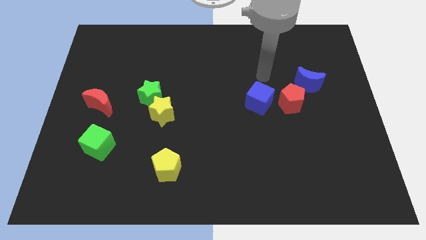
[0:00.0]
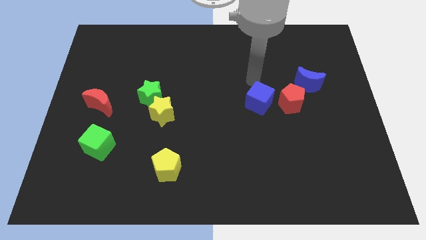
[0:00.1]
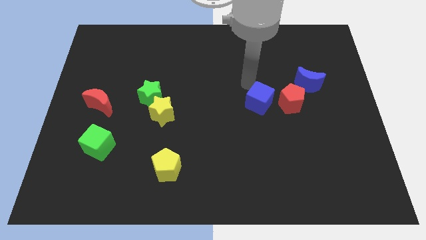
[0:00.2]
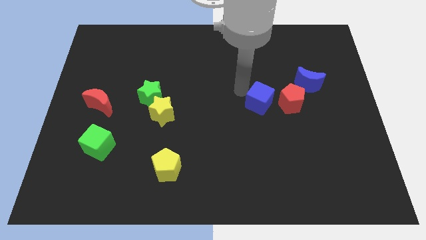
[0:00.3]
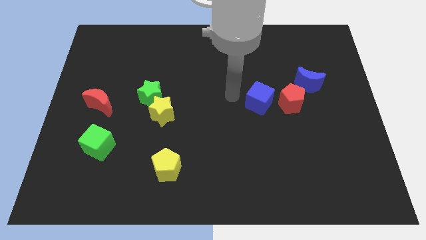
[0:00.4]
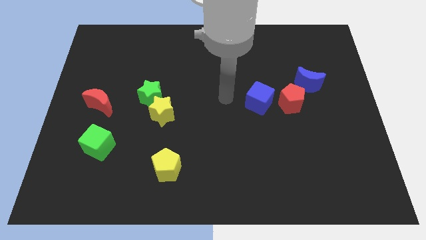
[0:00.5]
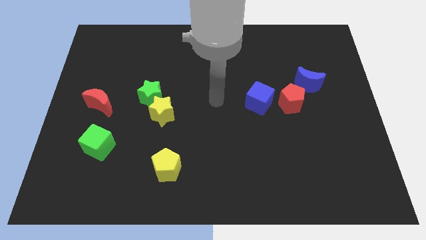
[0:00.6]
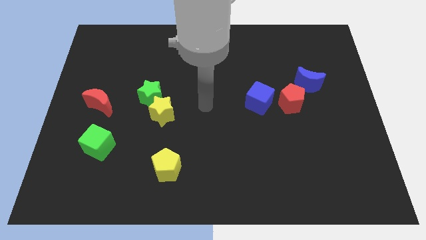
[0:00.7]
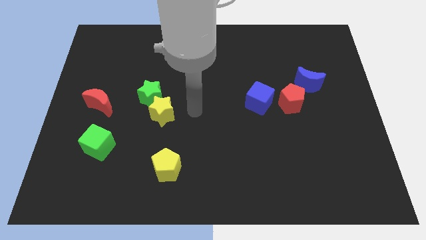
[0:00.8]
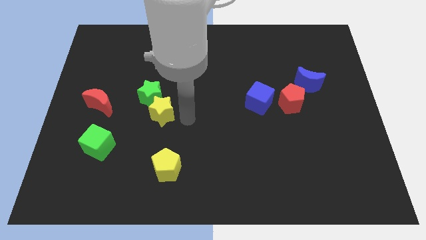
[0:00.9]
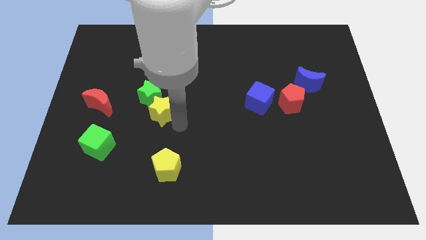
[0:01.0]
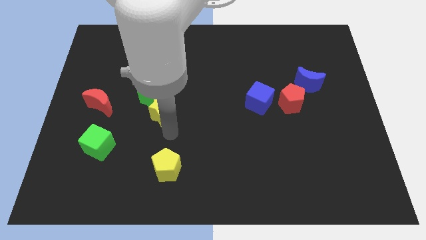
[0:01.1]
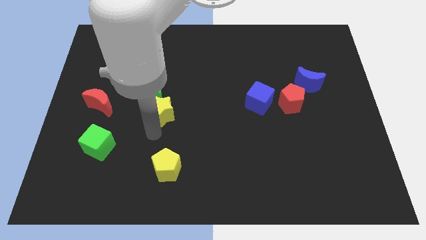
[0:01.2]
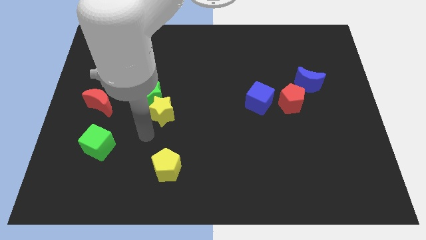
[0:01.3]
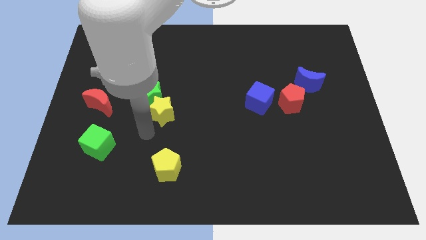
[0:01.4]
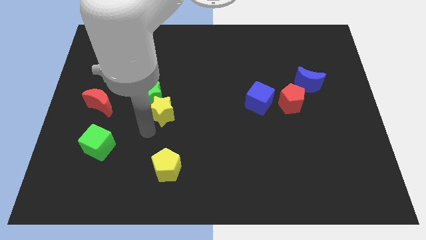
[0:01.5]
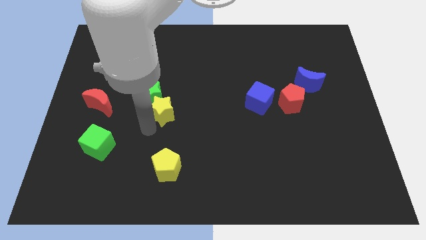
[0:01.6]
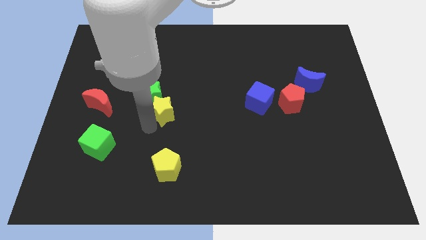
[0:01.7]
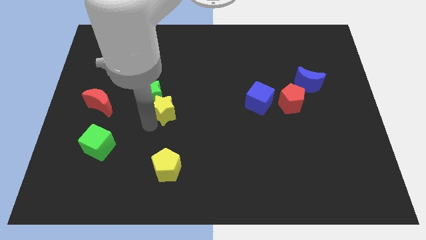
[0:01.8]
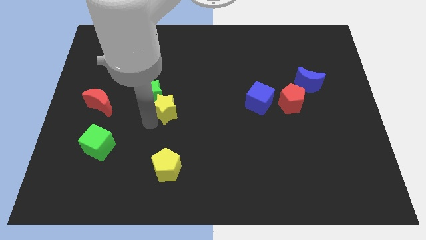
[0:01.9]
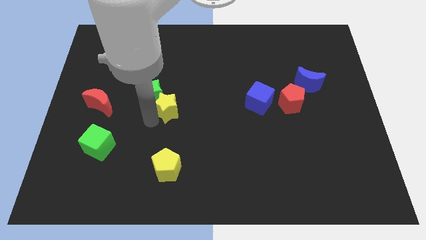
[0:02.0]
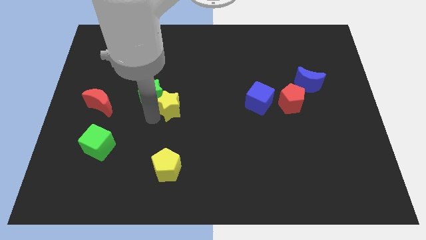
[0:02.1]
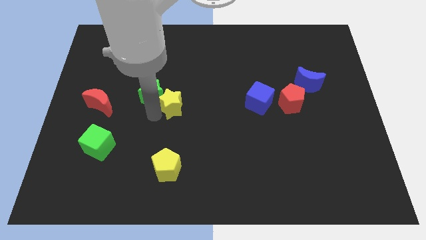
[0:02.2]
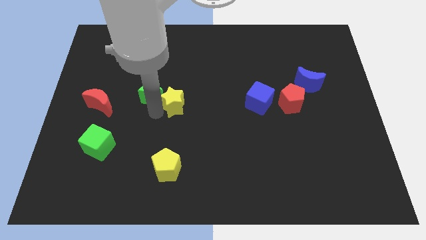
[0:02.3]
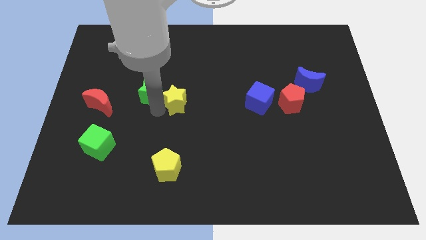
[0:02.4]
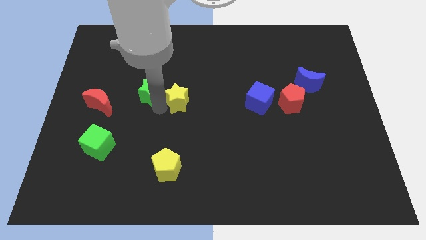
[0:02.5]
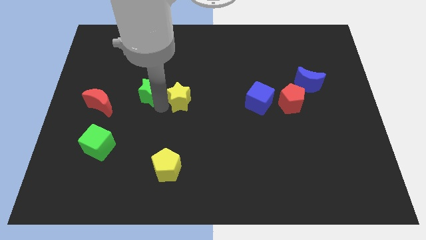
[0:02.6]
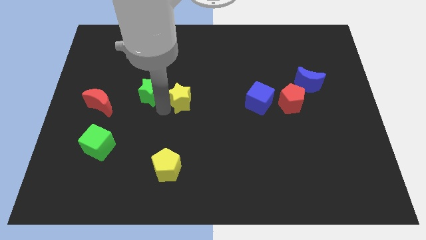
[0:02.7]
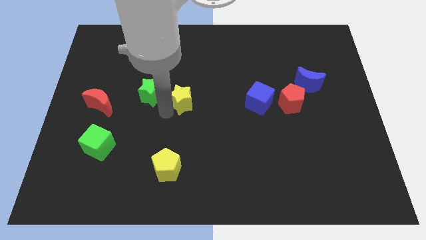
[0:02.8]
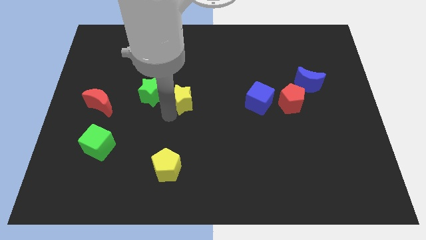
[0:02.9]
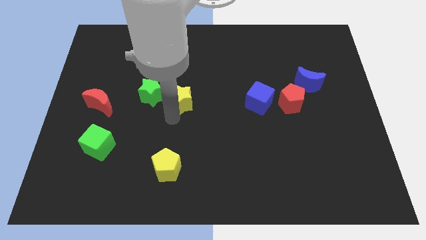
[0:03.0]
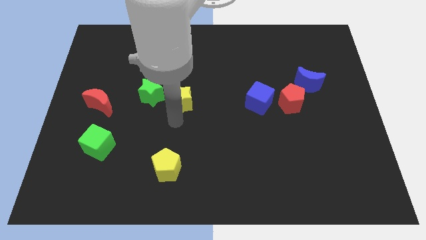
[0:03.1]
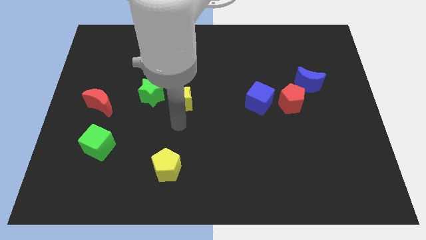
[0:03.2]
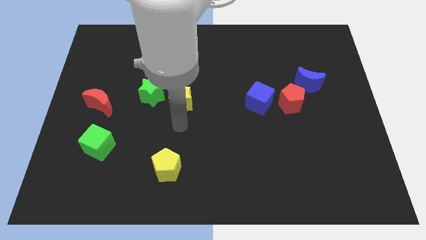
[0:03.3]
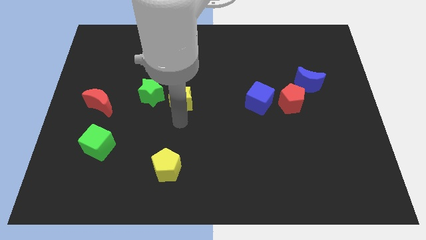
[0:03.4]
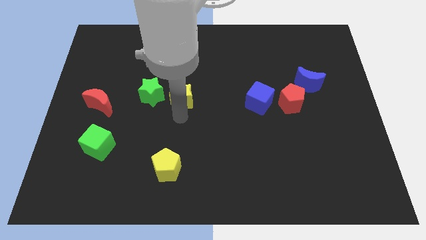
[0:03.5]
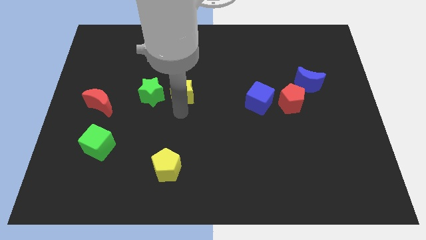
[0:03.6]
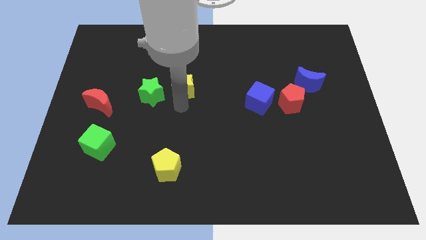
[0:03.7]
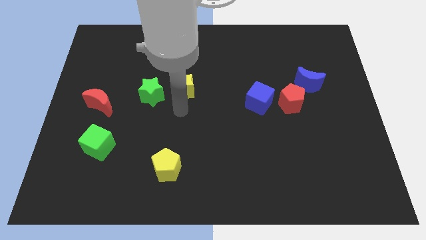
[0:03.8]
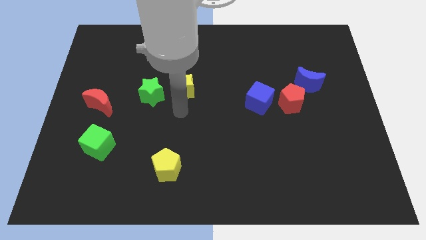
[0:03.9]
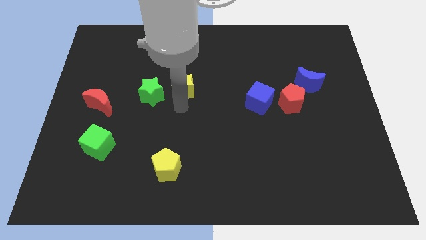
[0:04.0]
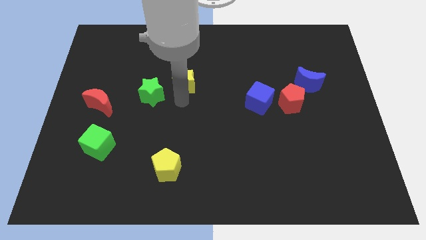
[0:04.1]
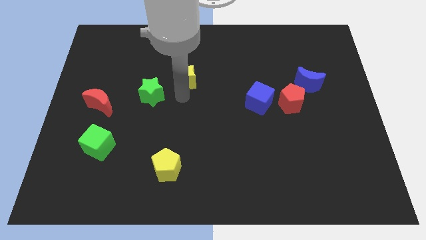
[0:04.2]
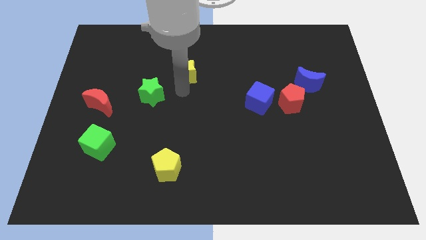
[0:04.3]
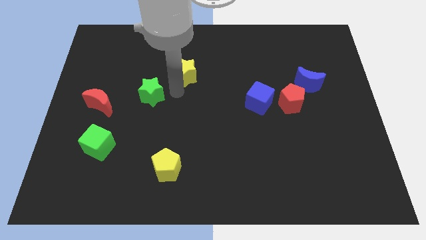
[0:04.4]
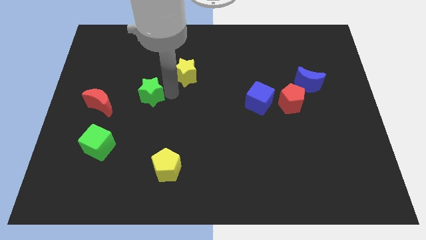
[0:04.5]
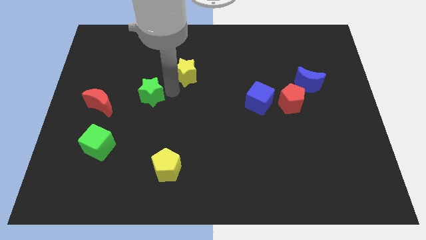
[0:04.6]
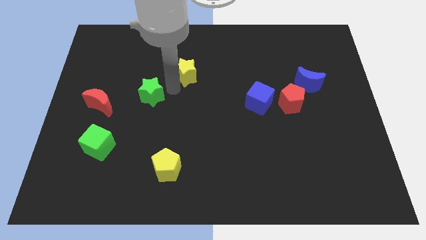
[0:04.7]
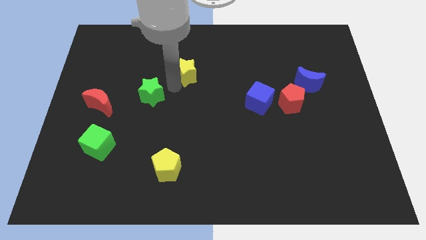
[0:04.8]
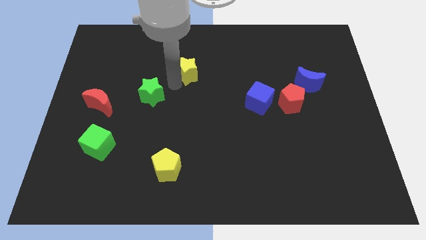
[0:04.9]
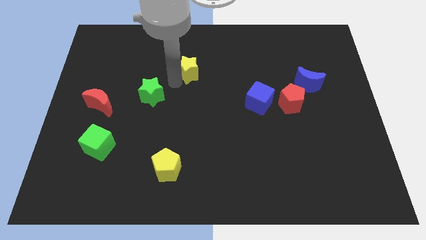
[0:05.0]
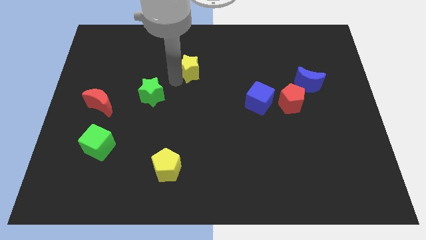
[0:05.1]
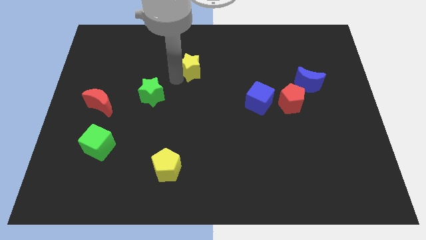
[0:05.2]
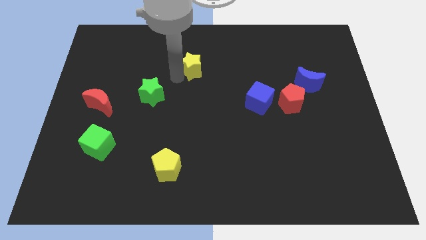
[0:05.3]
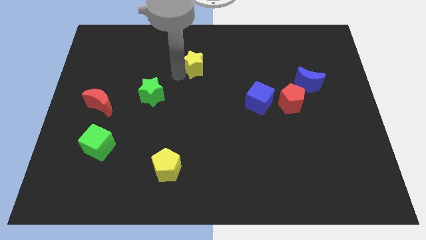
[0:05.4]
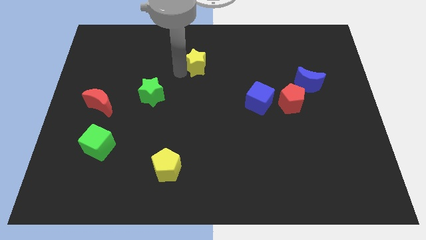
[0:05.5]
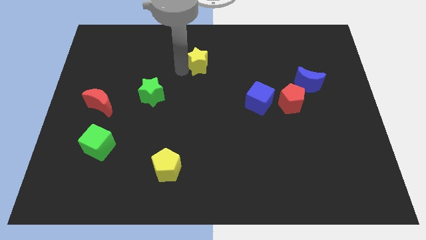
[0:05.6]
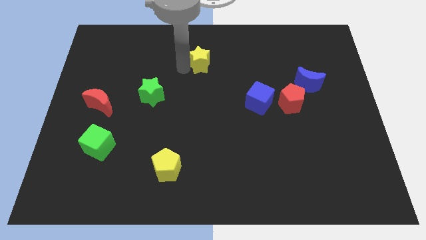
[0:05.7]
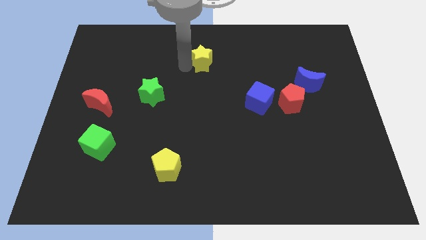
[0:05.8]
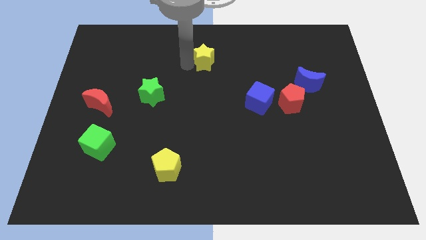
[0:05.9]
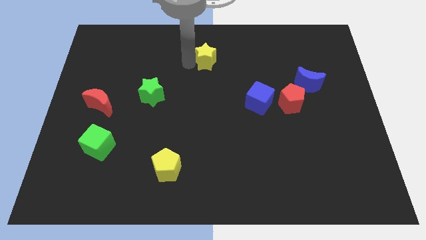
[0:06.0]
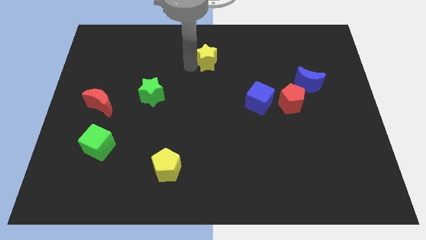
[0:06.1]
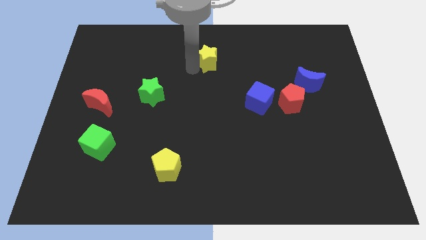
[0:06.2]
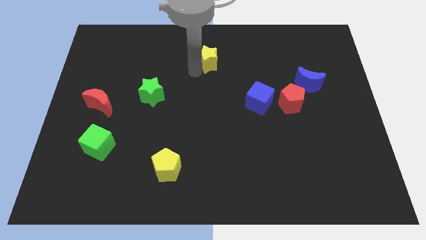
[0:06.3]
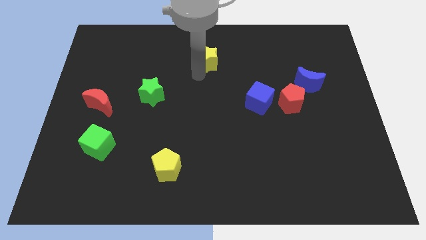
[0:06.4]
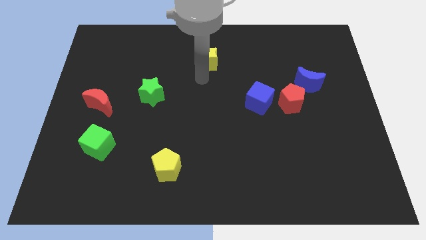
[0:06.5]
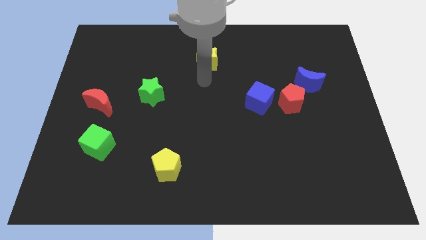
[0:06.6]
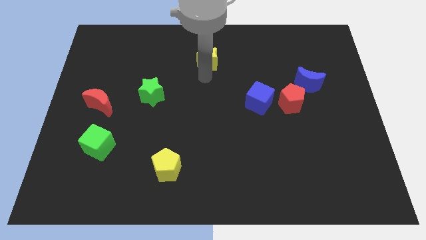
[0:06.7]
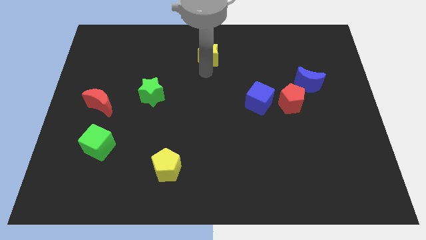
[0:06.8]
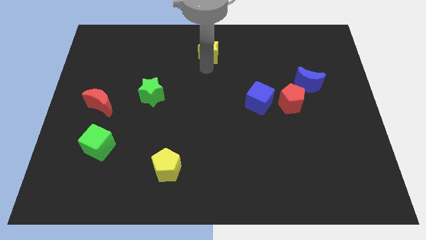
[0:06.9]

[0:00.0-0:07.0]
push the yellow star to the towards your base
